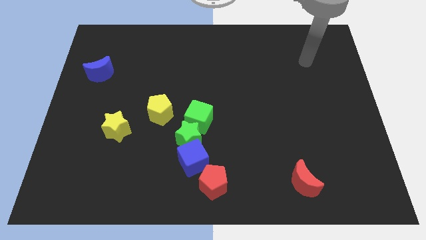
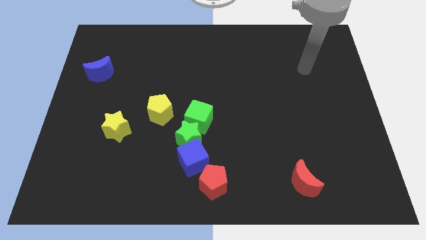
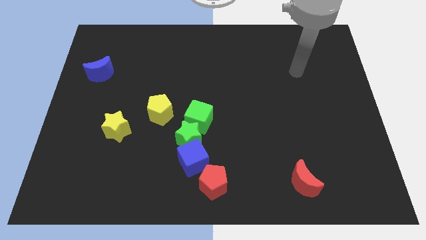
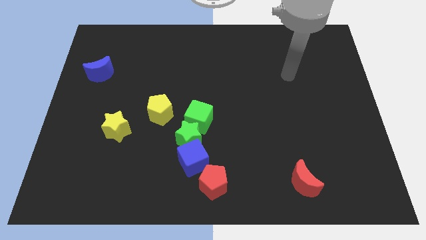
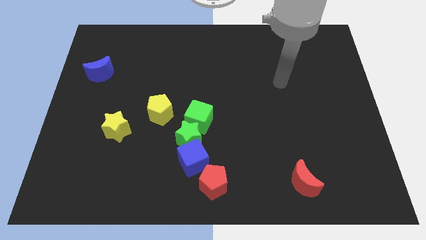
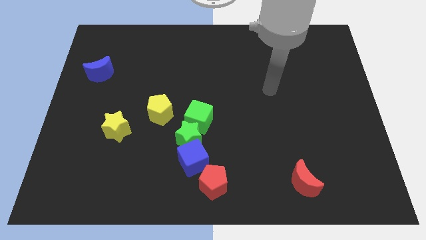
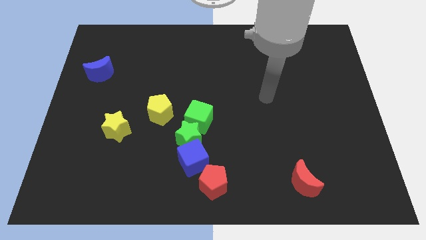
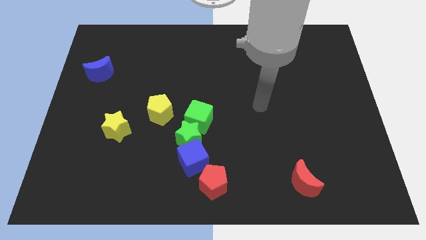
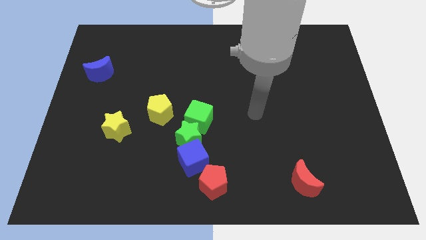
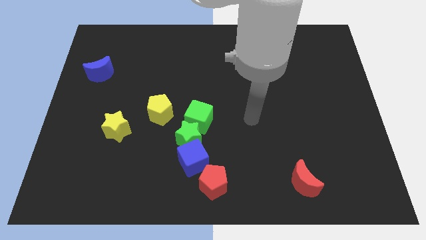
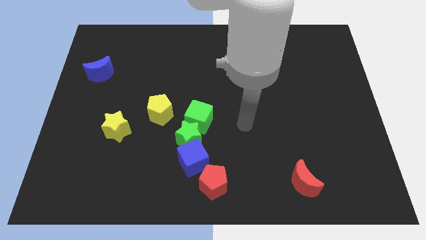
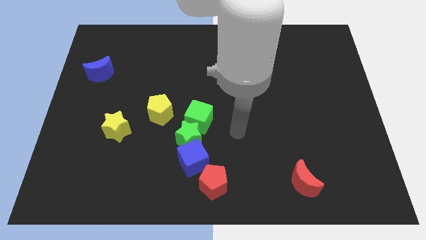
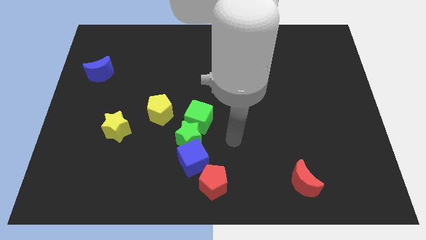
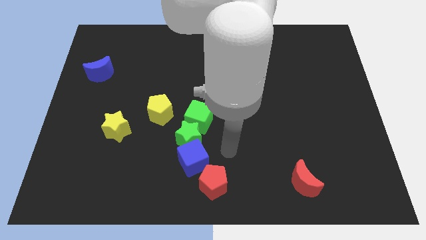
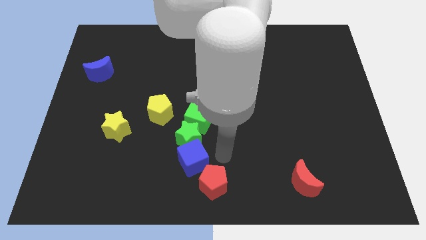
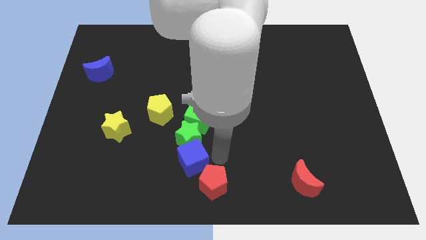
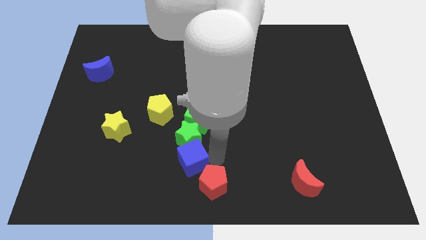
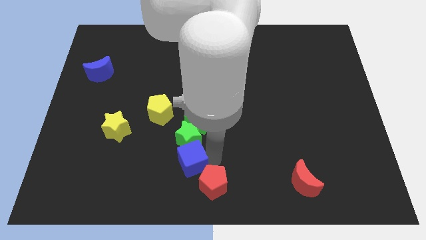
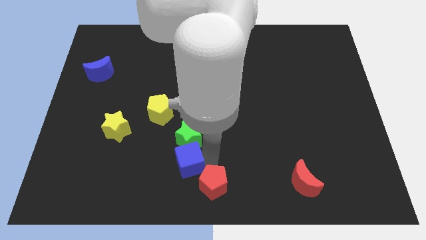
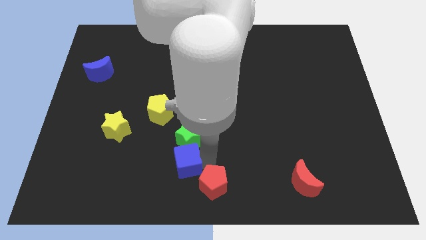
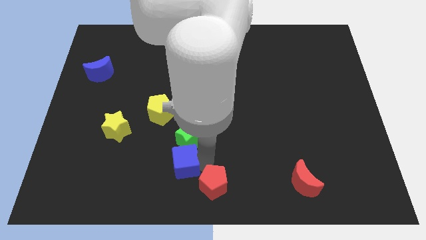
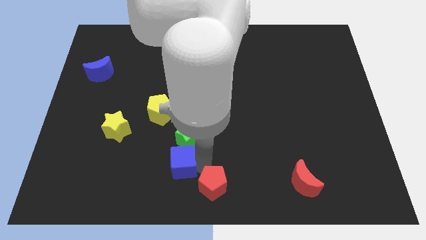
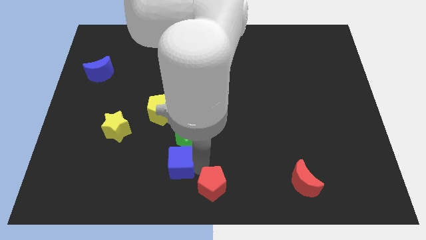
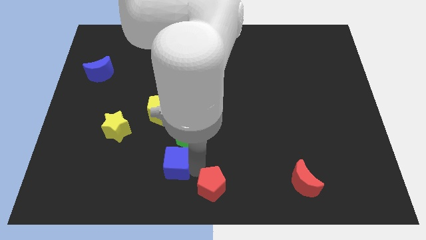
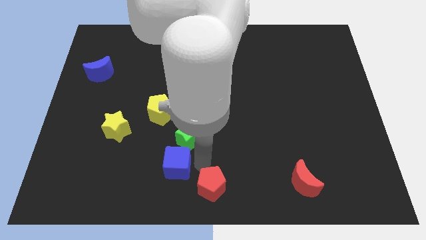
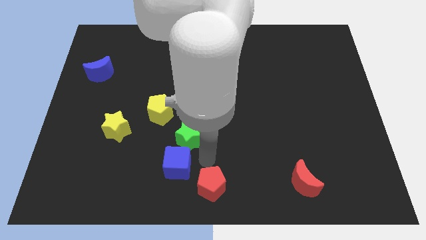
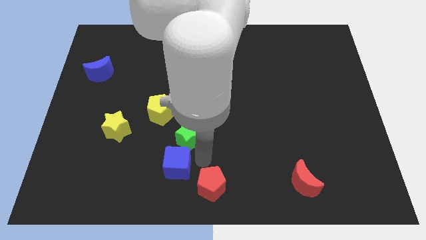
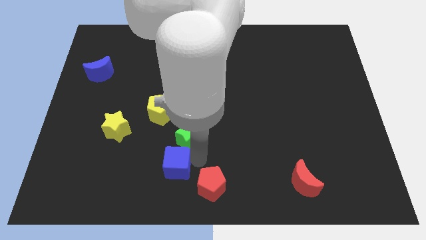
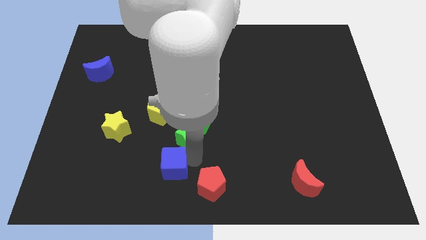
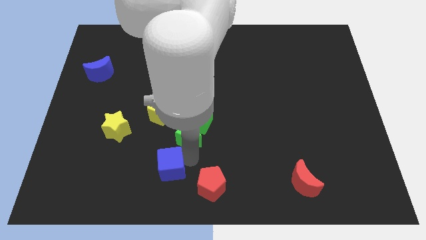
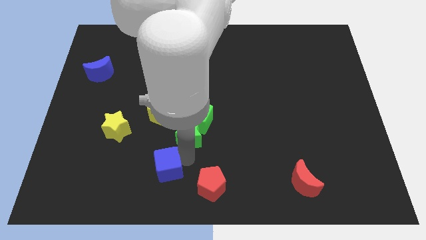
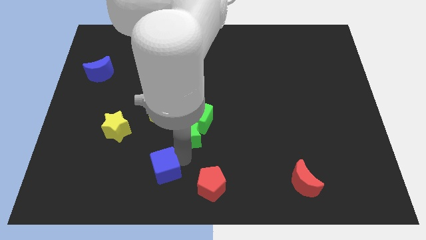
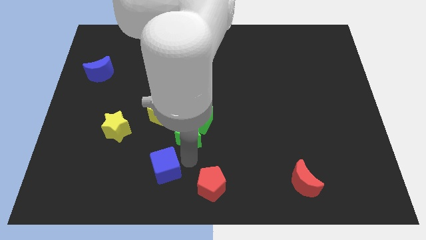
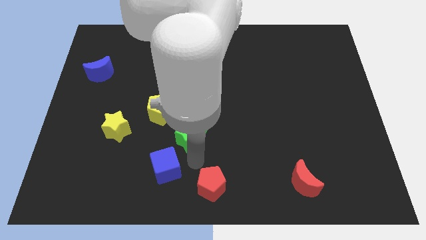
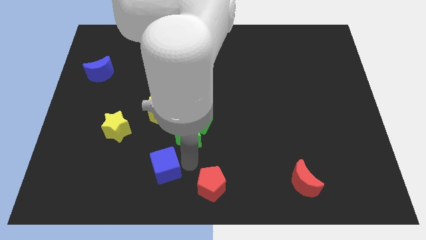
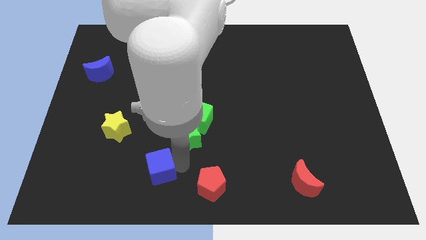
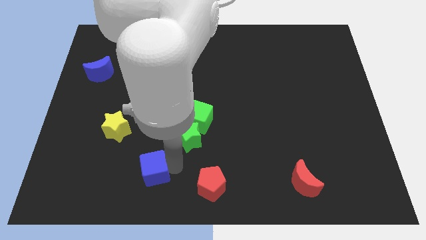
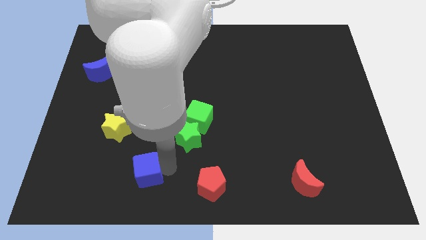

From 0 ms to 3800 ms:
pull the blue cube apart from the green star and red pentagon

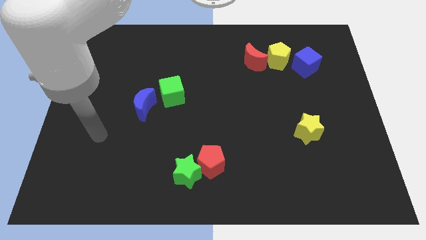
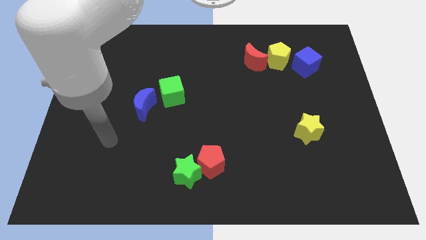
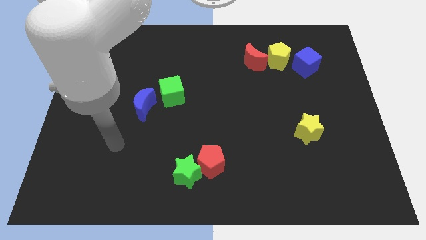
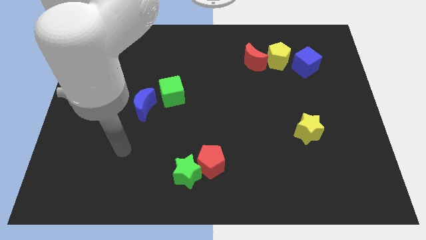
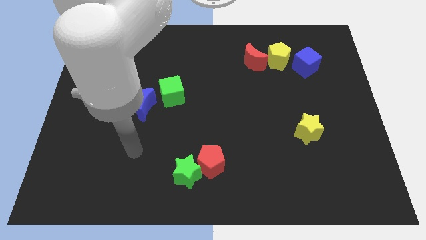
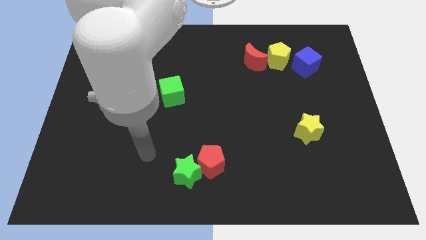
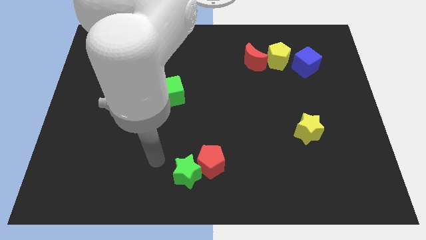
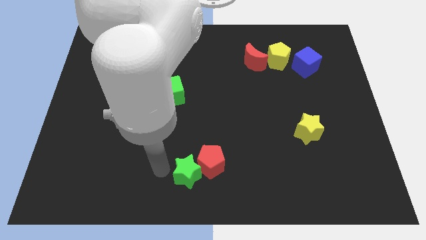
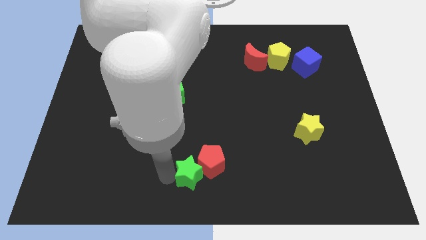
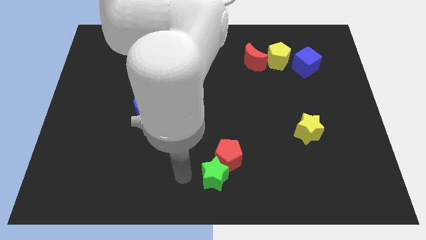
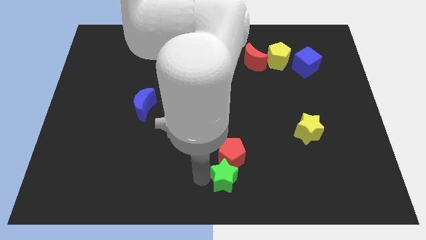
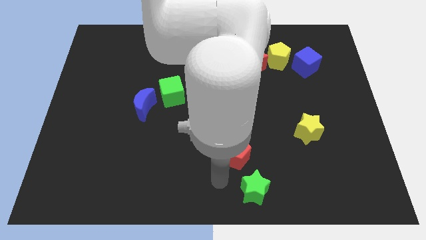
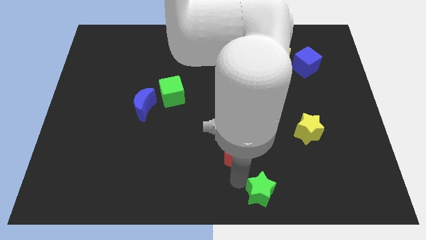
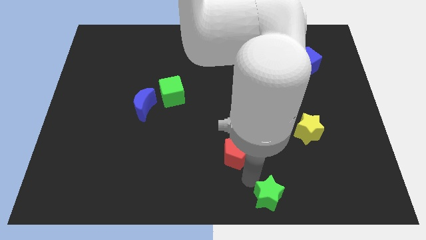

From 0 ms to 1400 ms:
move the red pentagon away from the green star

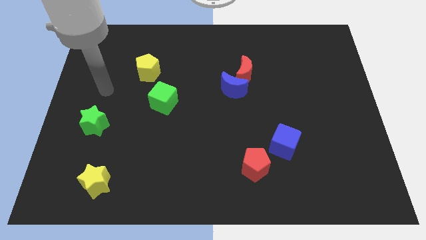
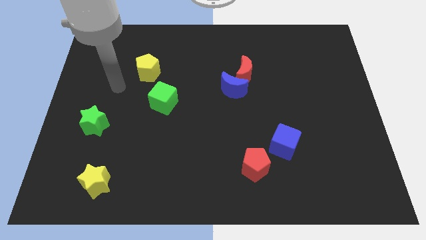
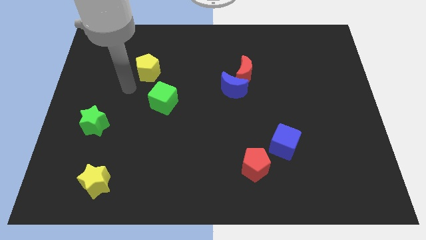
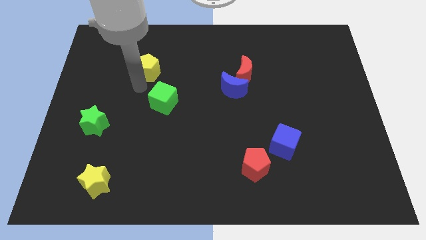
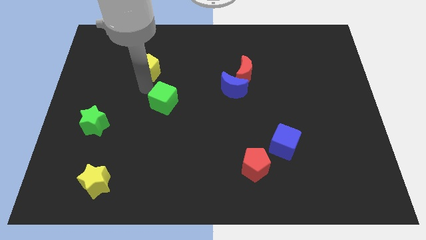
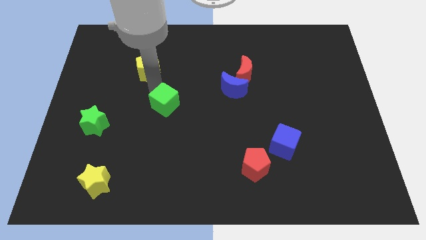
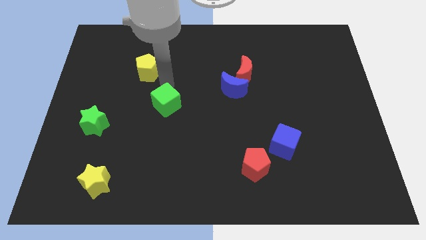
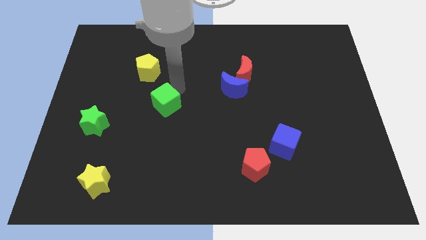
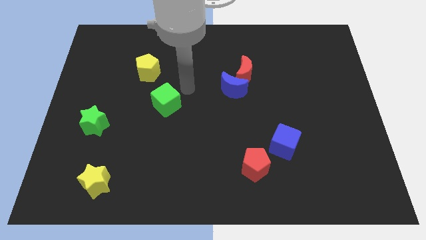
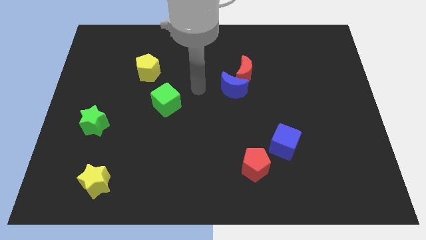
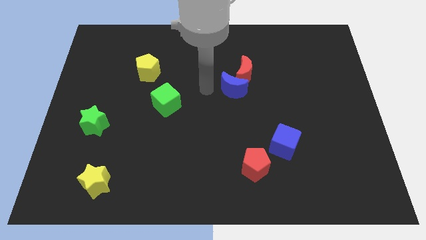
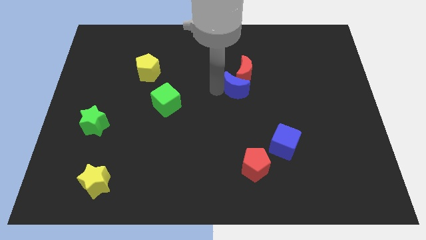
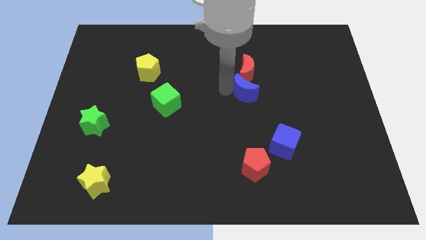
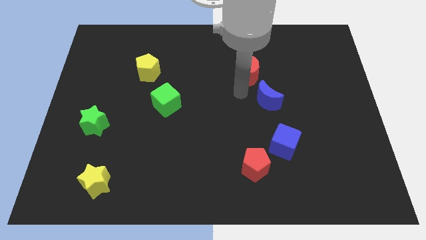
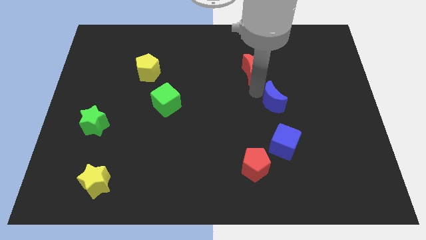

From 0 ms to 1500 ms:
pull the red moon apart from the blue moon

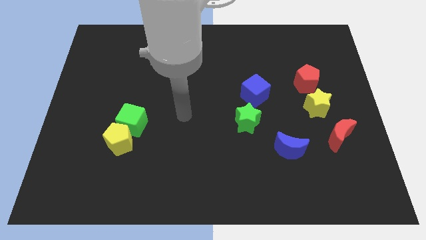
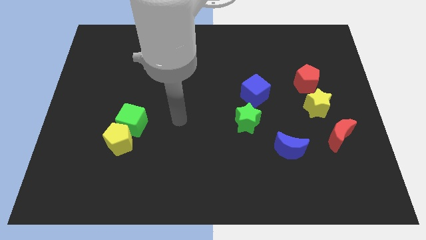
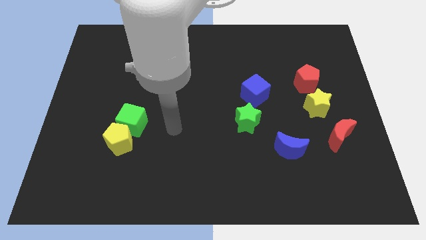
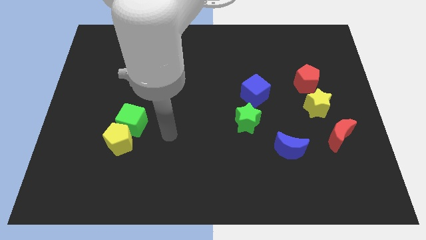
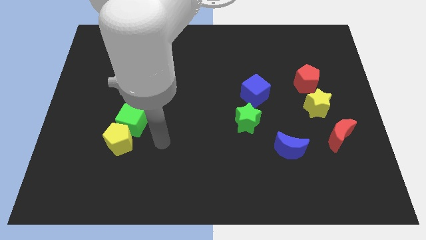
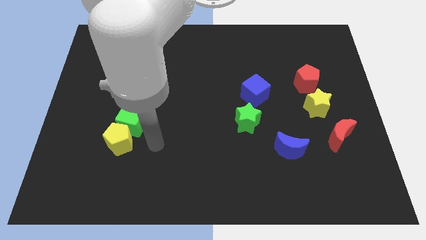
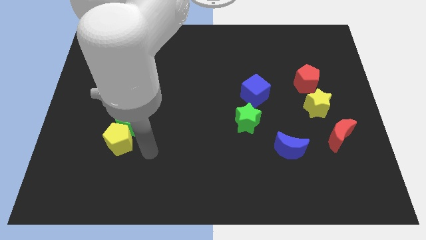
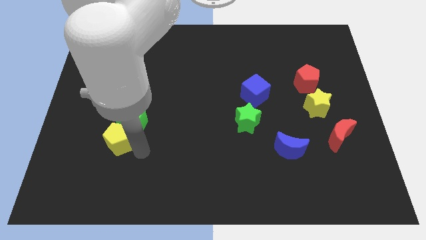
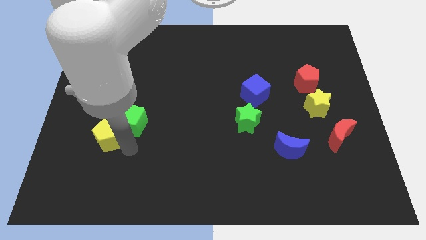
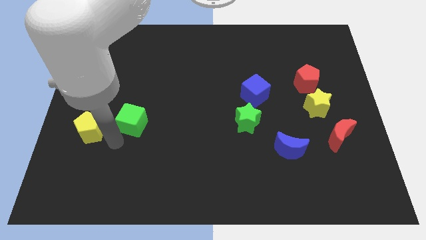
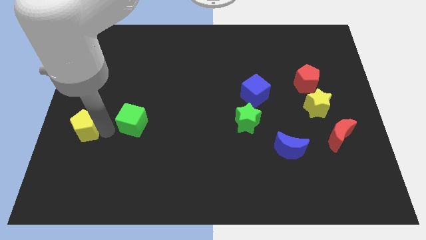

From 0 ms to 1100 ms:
move the green cube away from the yellow pentagon

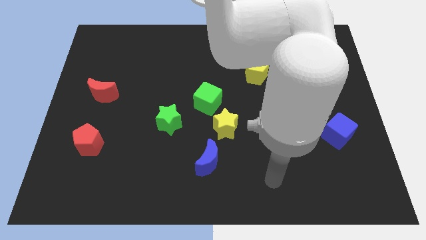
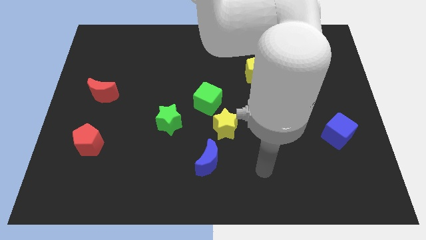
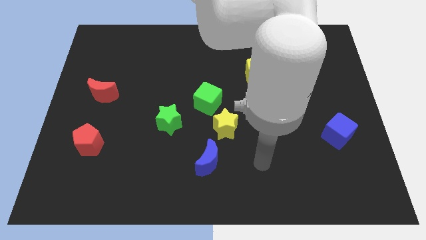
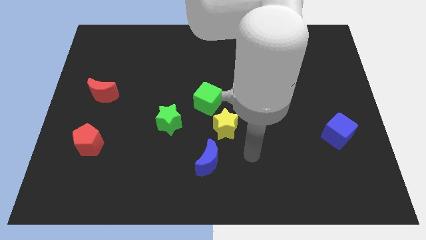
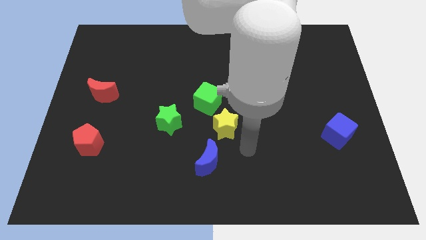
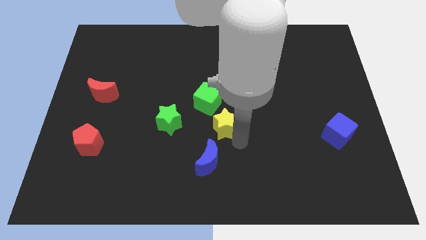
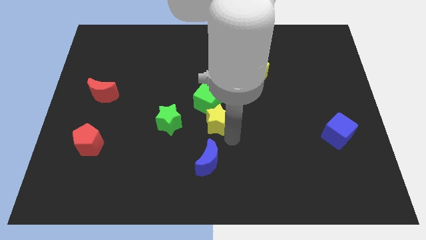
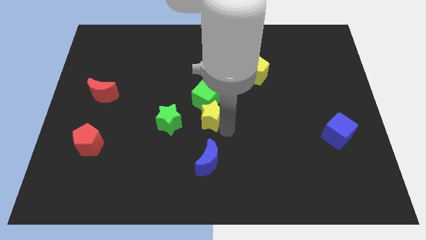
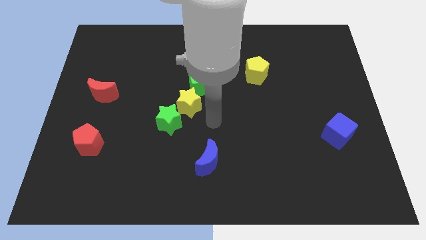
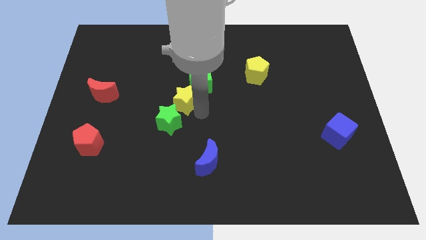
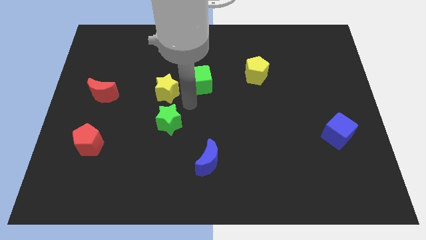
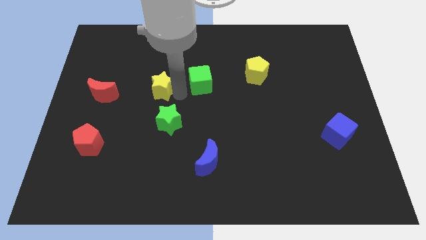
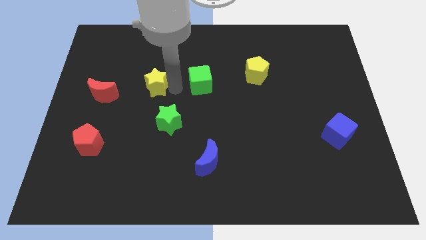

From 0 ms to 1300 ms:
pull the green cube apart from the yellow star

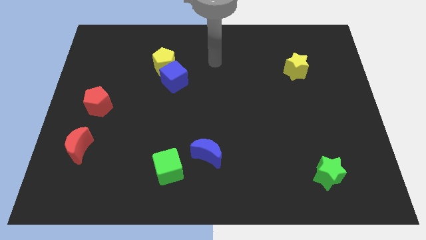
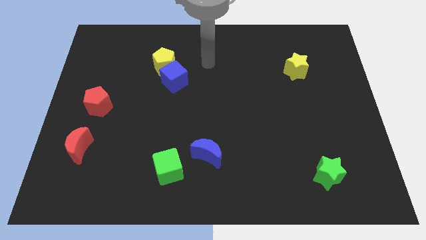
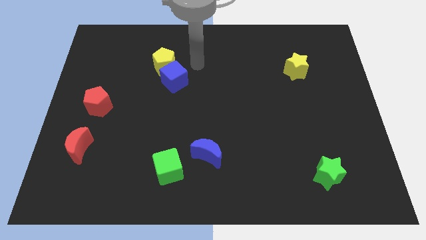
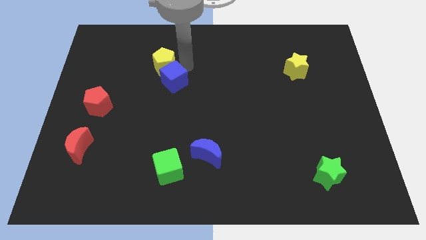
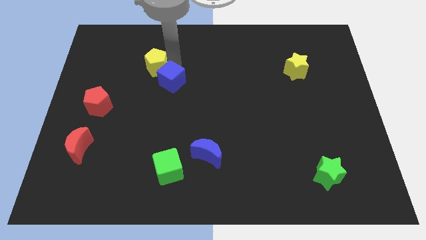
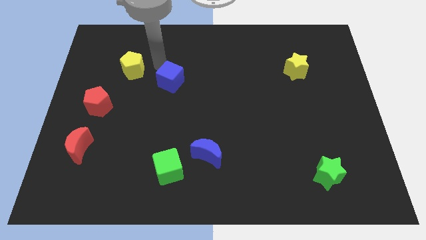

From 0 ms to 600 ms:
separate the blue cube from the yellow pentagon
